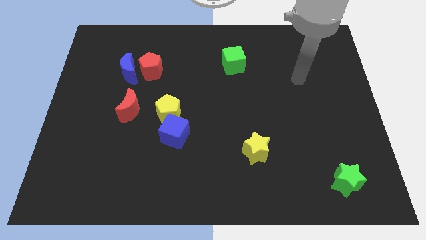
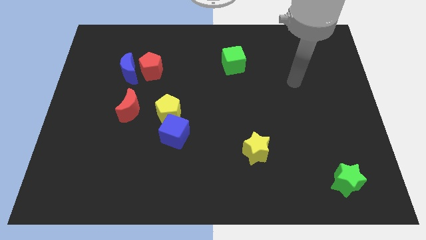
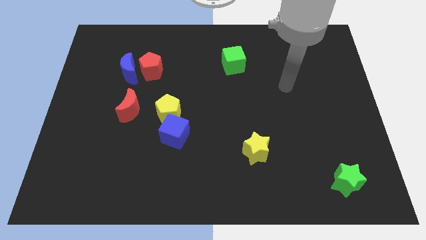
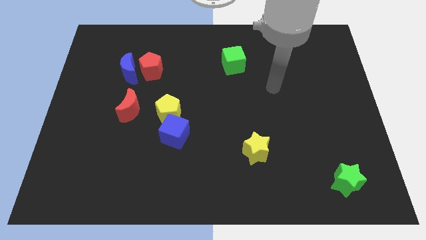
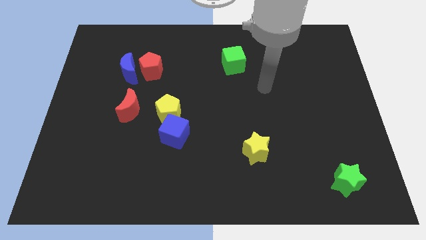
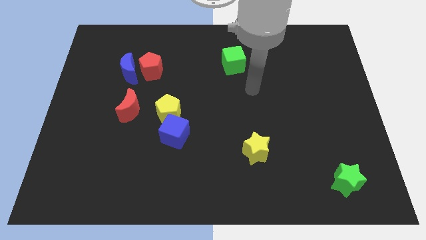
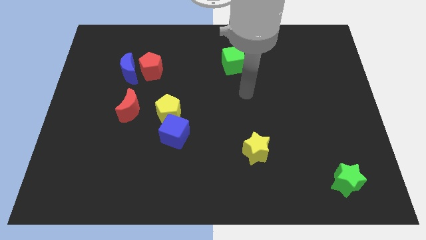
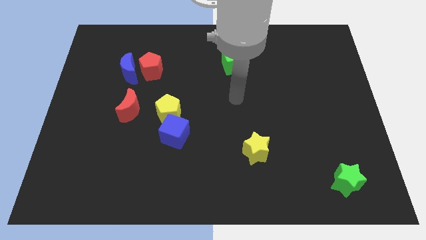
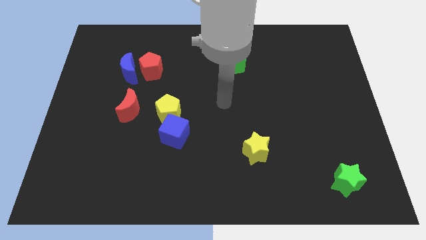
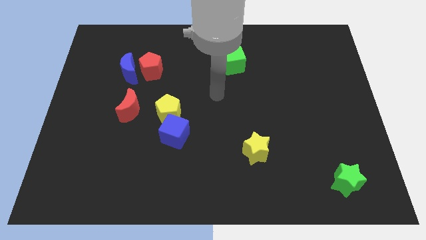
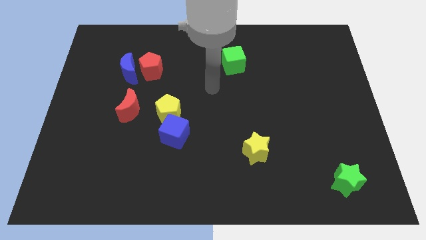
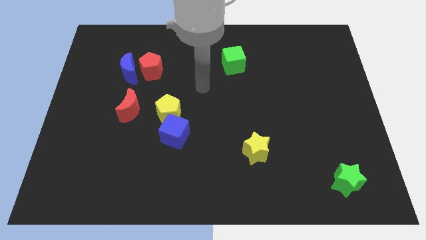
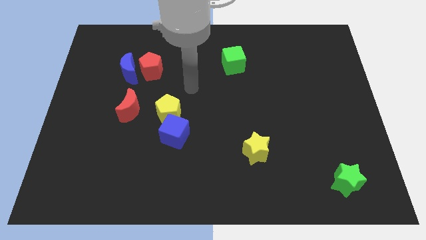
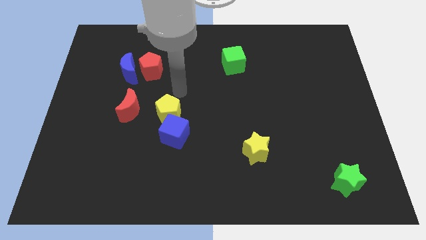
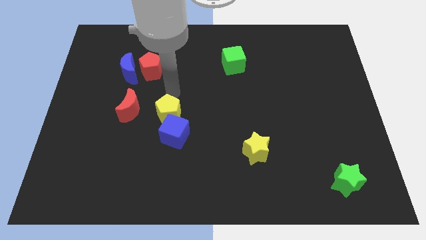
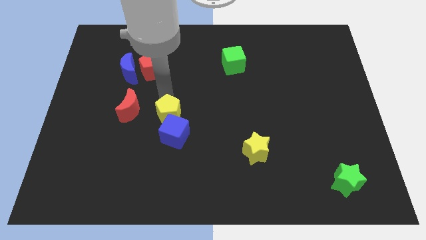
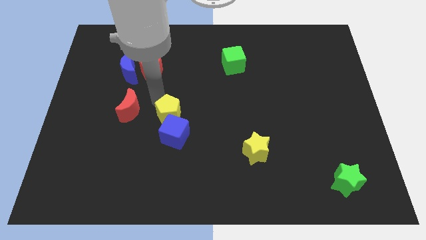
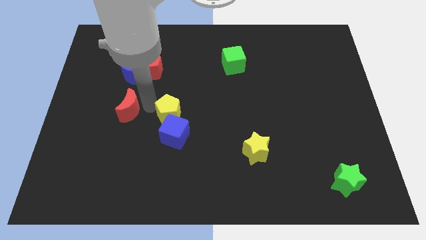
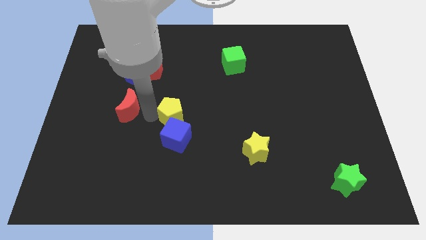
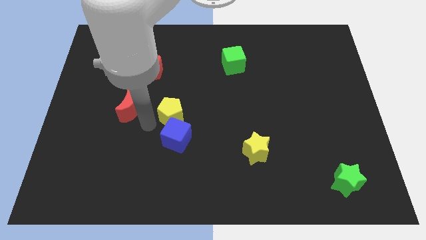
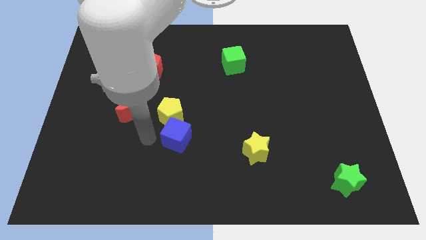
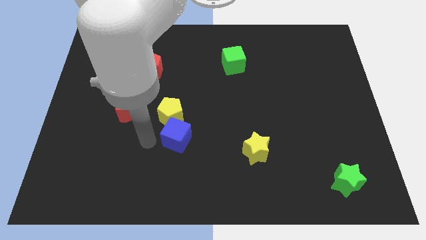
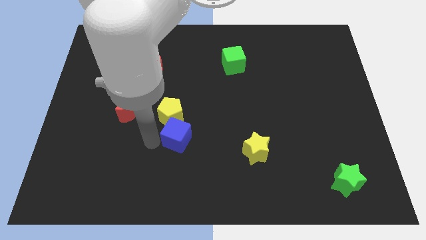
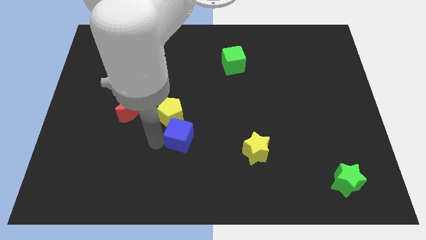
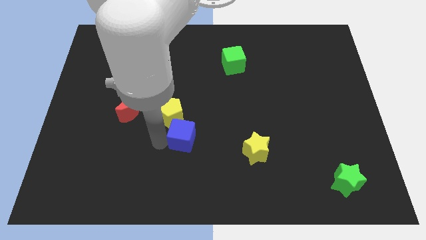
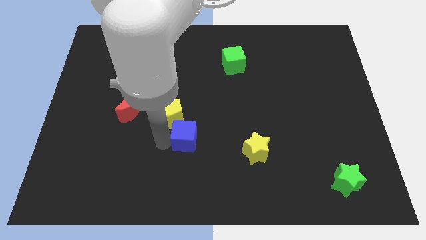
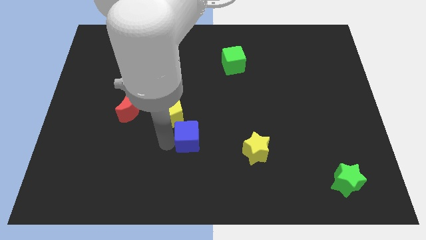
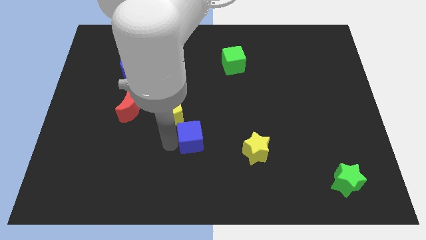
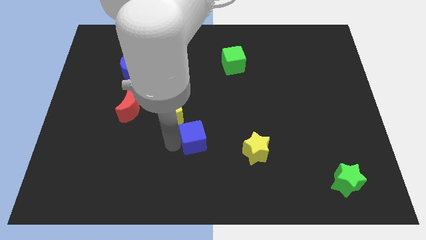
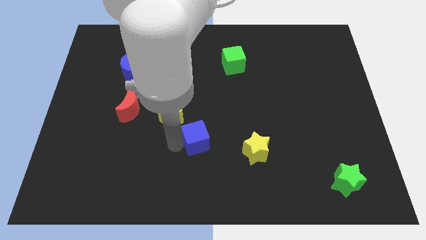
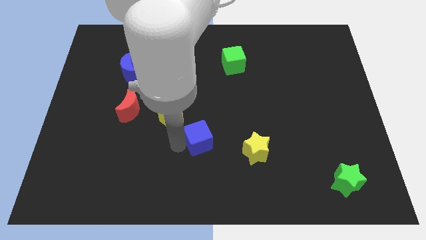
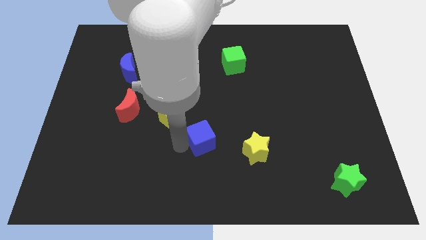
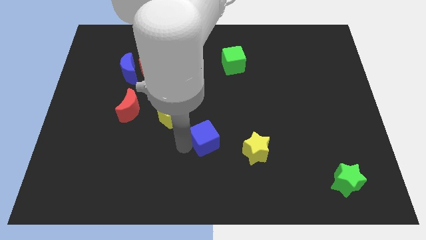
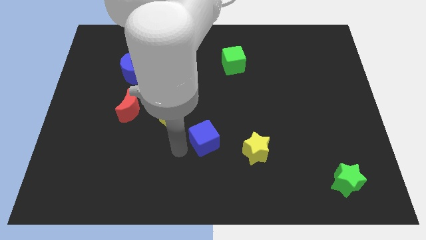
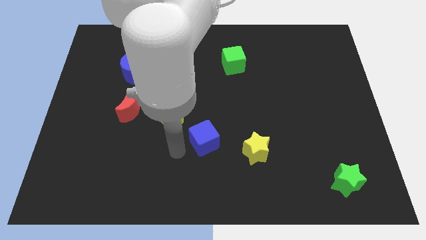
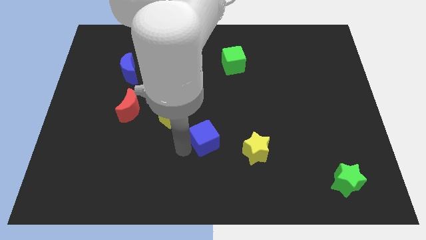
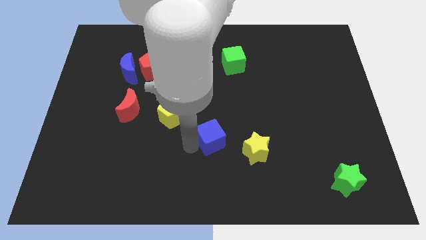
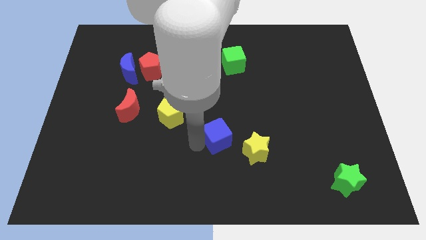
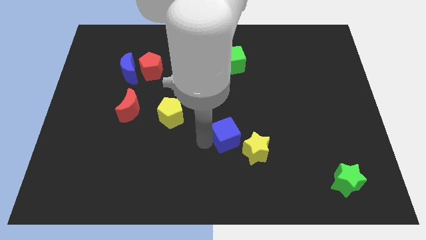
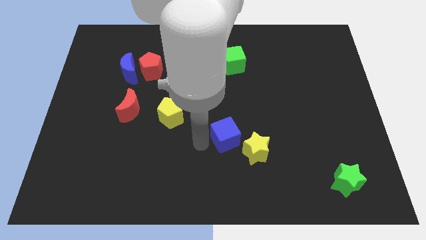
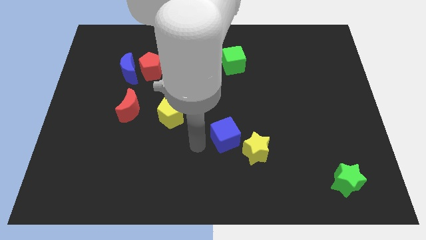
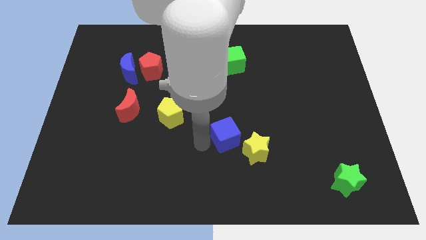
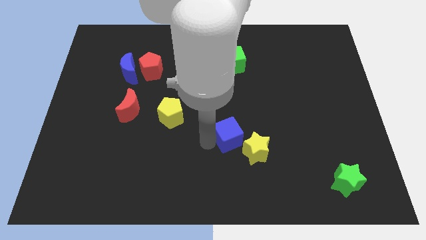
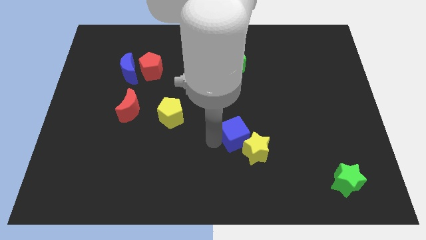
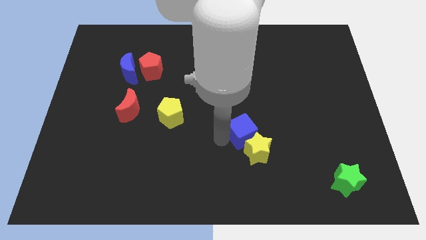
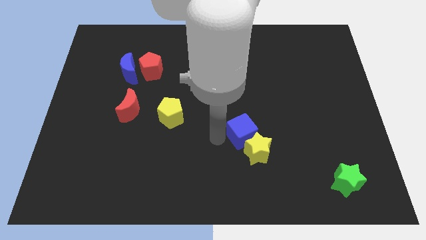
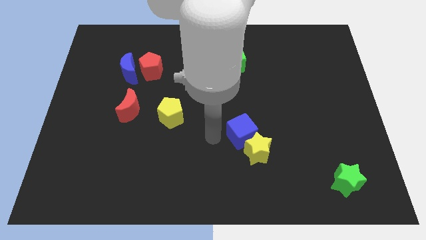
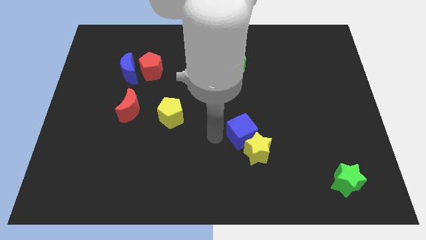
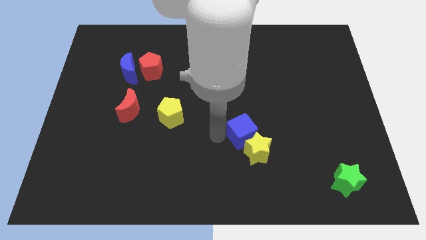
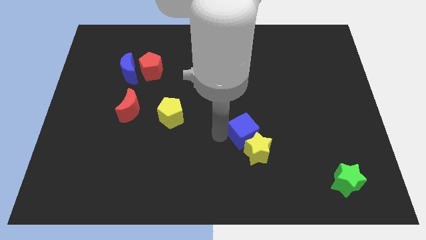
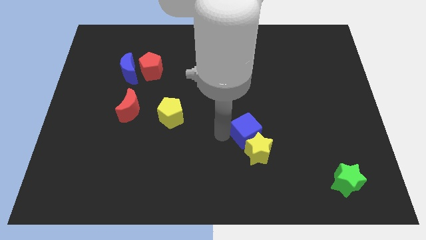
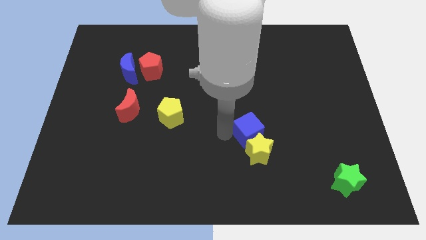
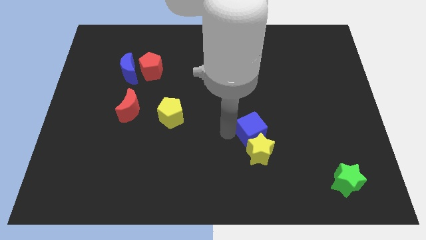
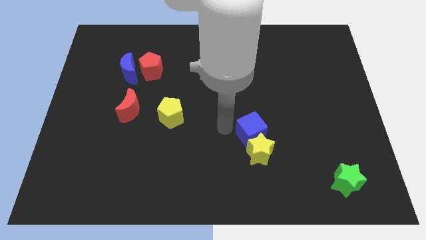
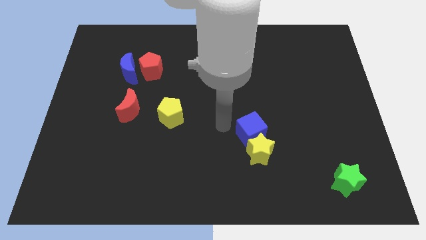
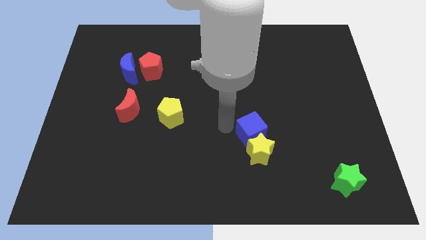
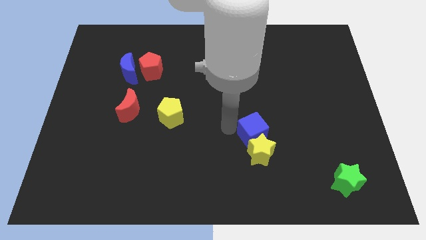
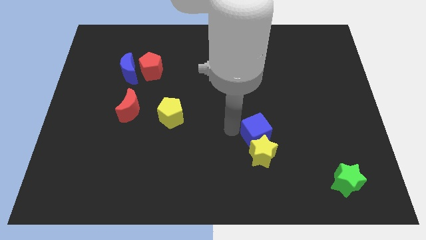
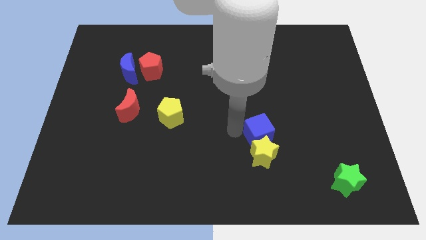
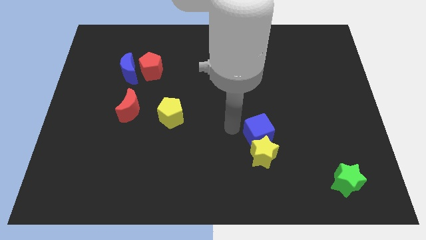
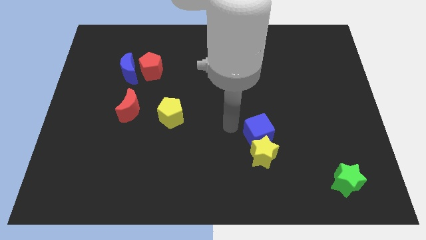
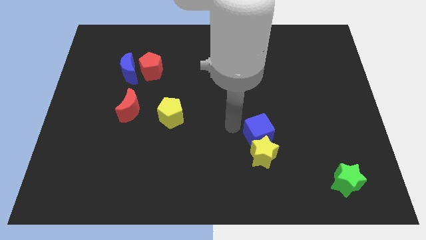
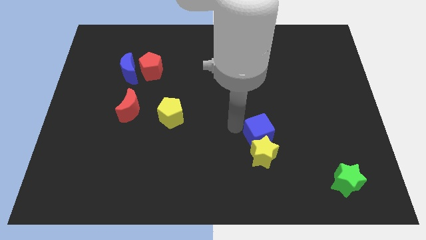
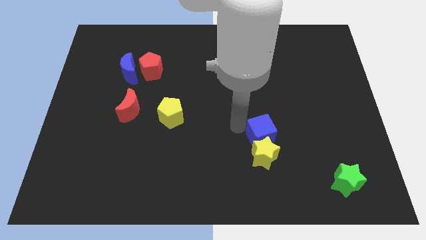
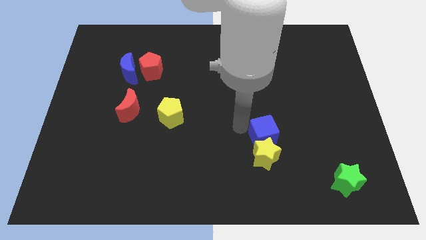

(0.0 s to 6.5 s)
push the blue cube right

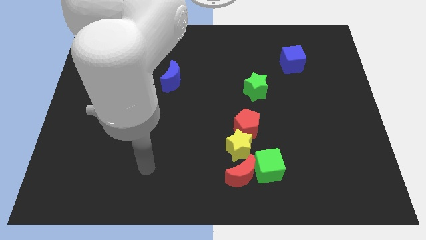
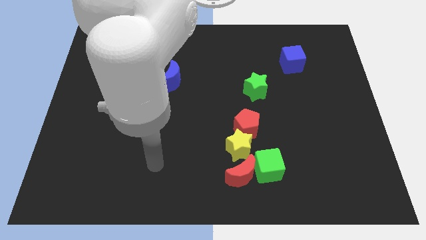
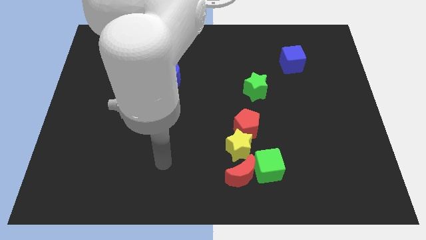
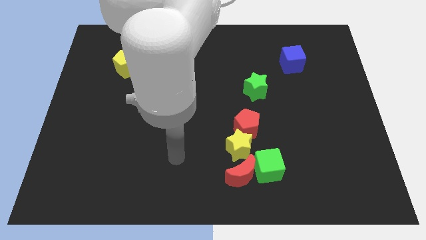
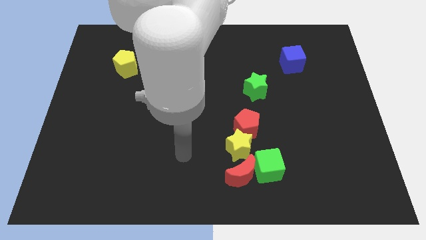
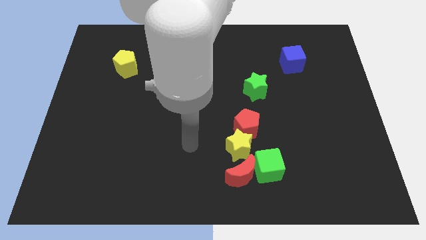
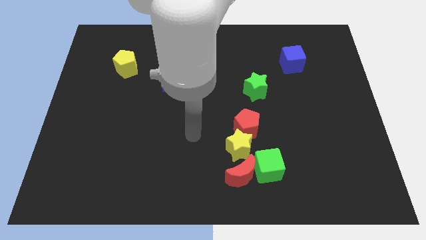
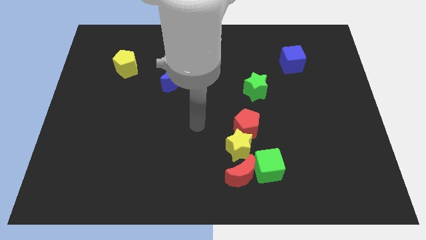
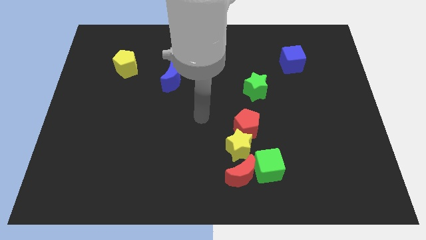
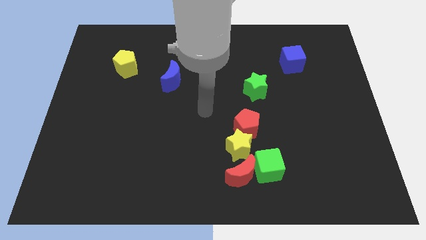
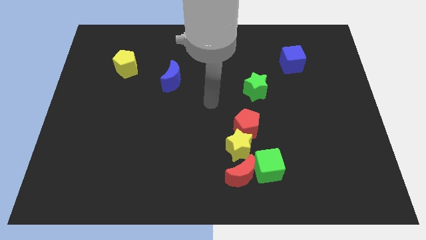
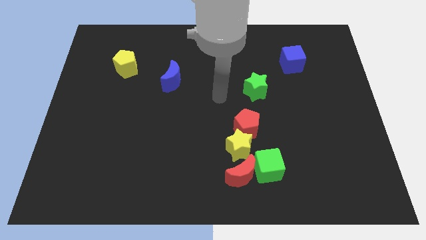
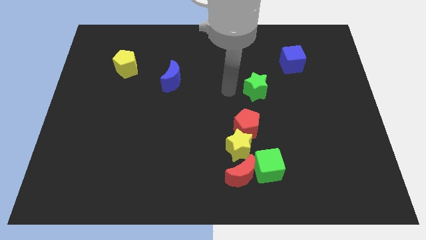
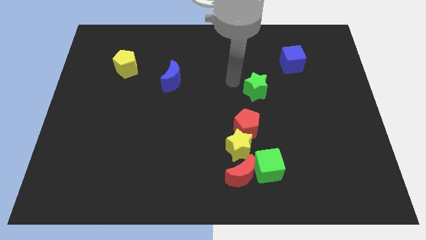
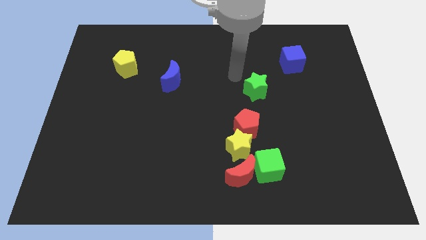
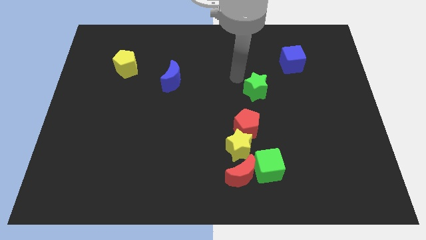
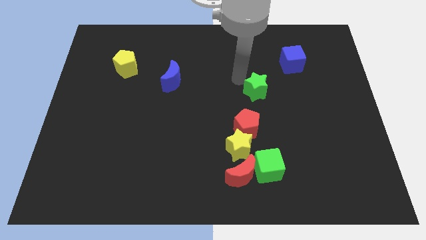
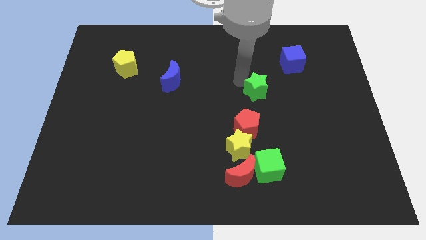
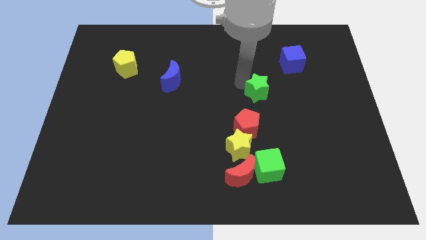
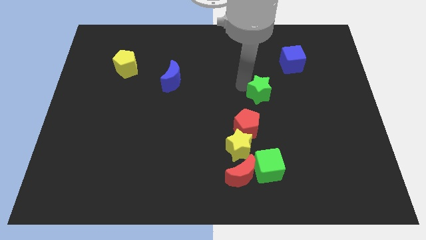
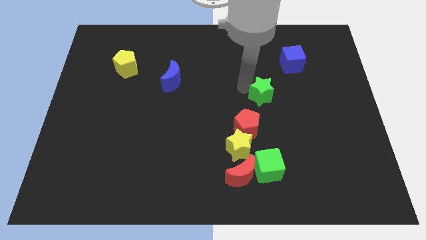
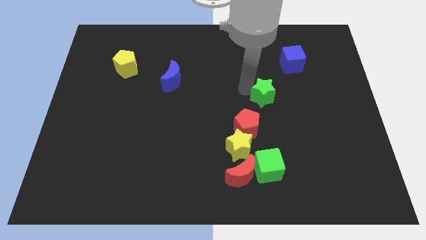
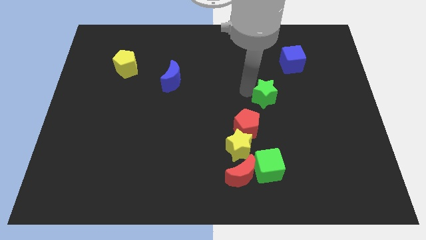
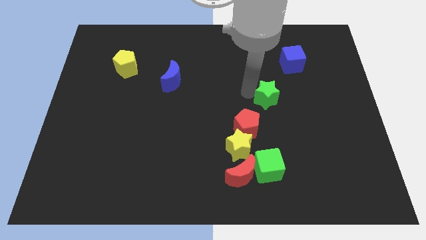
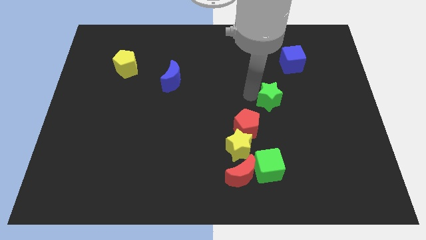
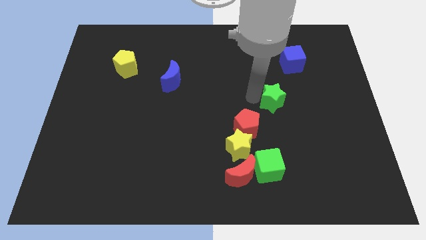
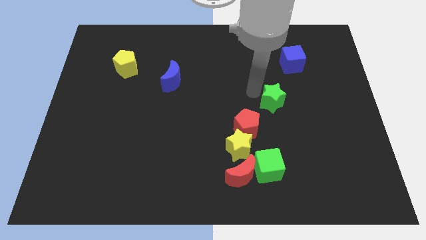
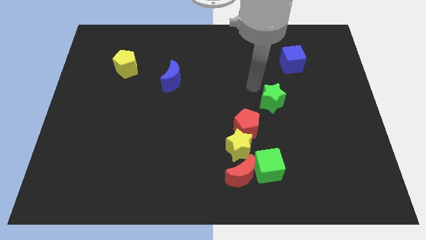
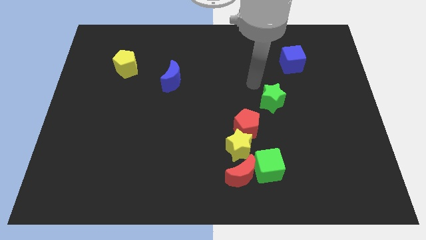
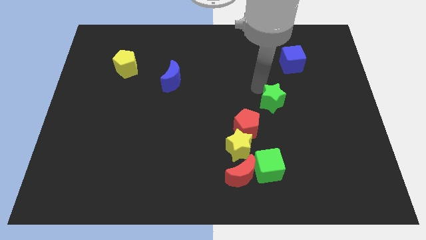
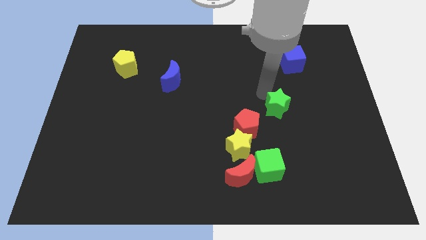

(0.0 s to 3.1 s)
slightly move the green star diagonally down and right
